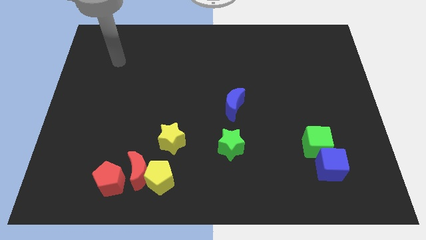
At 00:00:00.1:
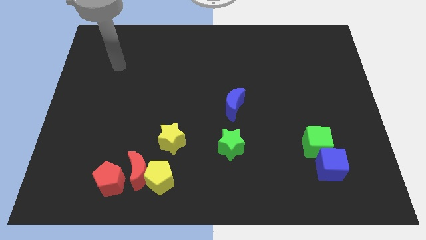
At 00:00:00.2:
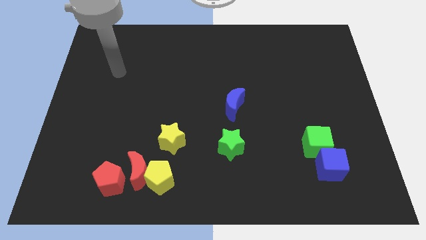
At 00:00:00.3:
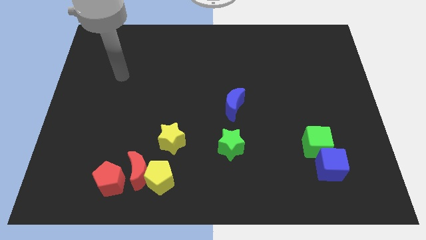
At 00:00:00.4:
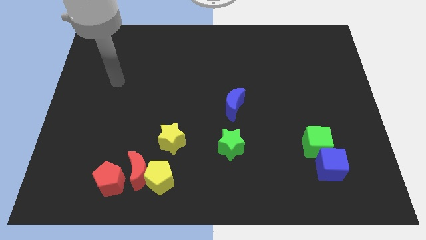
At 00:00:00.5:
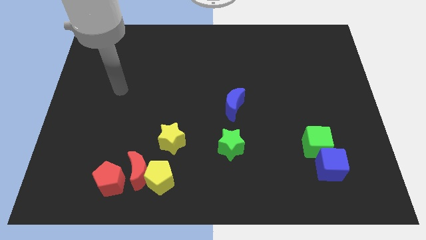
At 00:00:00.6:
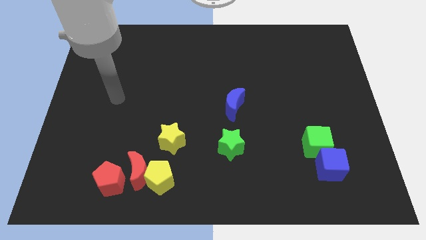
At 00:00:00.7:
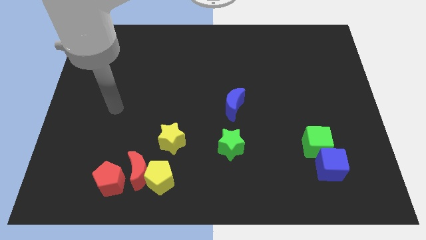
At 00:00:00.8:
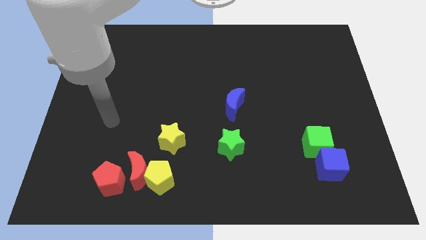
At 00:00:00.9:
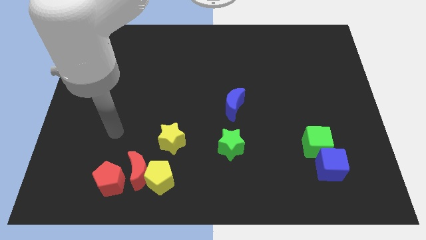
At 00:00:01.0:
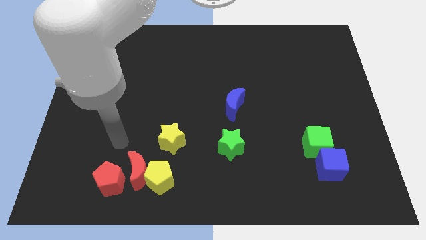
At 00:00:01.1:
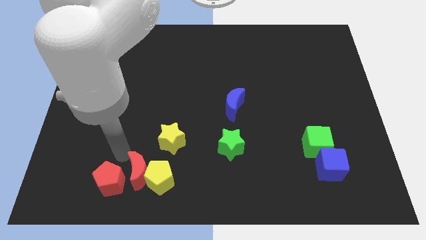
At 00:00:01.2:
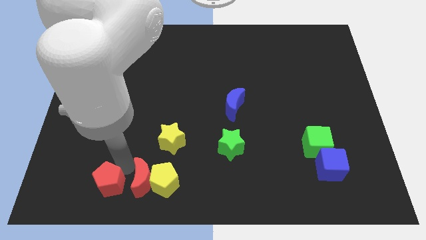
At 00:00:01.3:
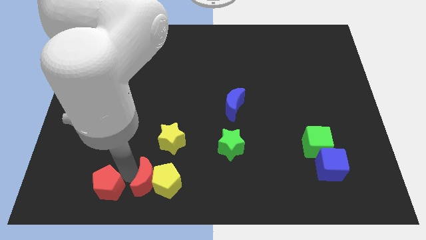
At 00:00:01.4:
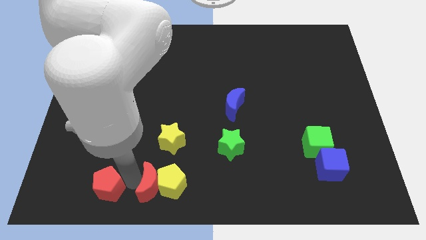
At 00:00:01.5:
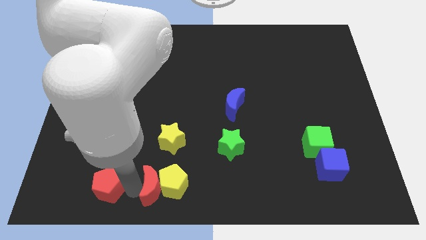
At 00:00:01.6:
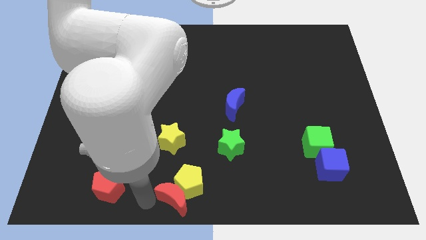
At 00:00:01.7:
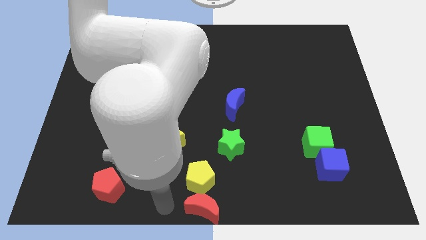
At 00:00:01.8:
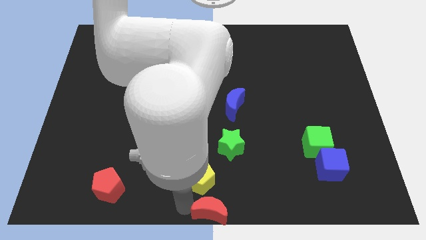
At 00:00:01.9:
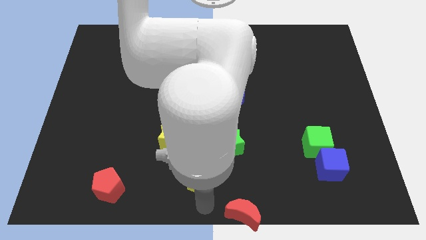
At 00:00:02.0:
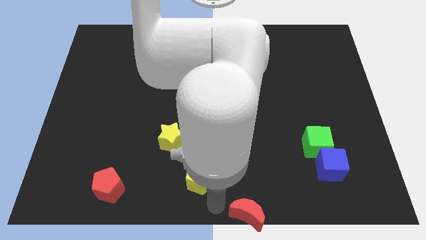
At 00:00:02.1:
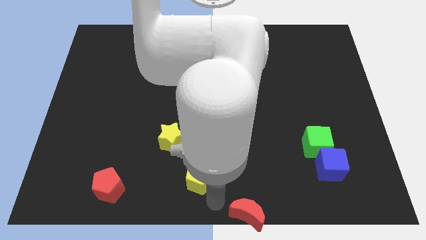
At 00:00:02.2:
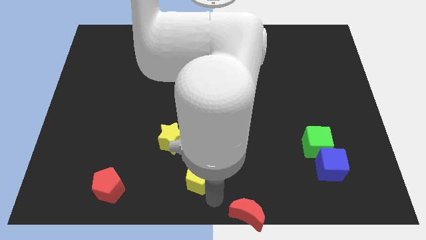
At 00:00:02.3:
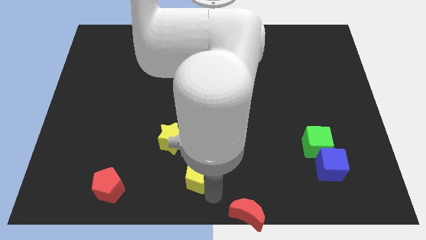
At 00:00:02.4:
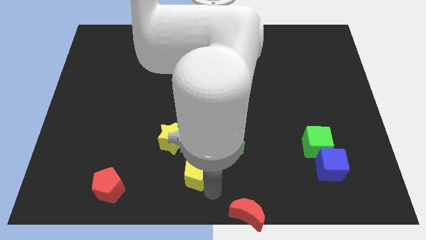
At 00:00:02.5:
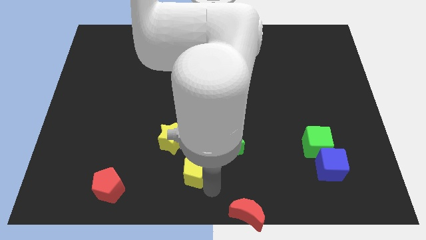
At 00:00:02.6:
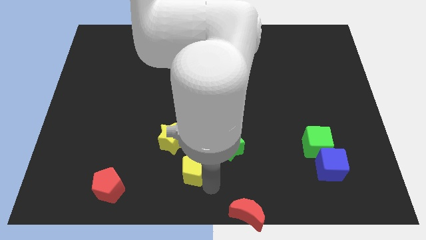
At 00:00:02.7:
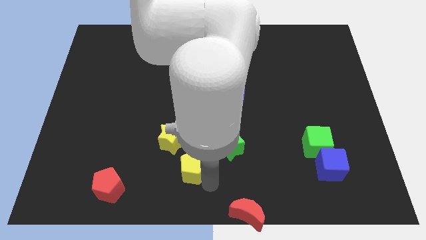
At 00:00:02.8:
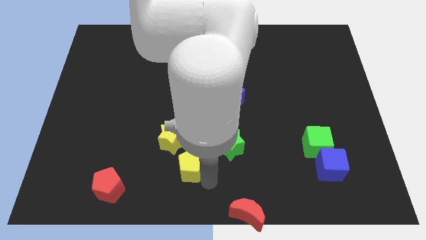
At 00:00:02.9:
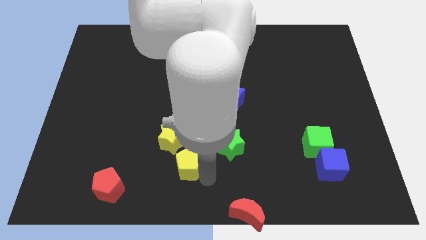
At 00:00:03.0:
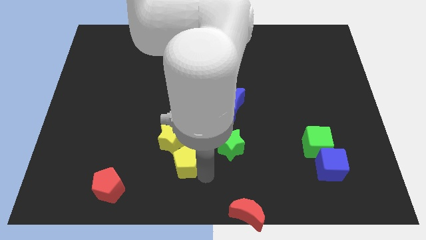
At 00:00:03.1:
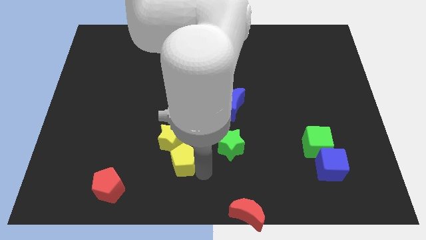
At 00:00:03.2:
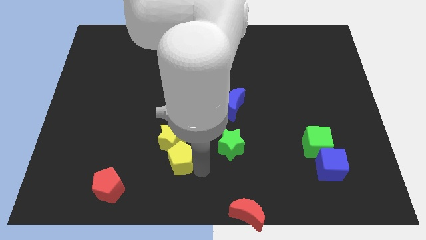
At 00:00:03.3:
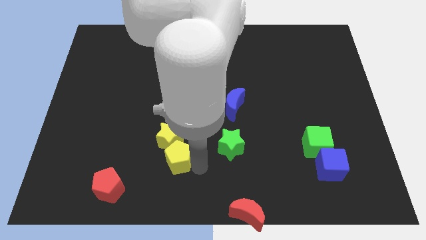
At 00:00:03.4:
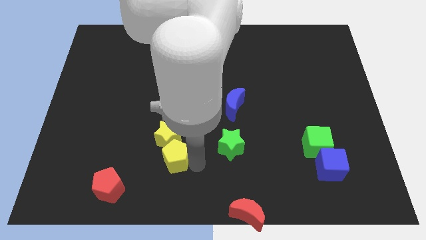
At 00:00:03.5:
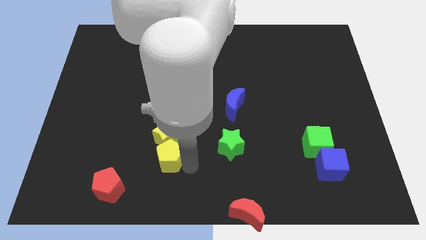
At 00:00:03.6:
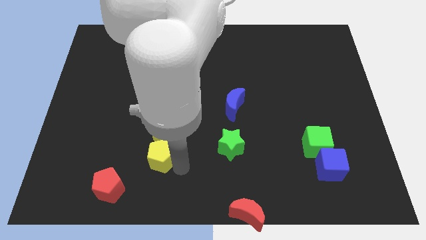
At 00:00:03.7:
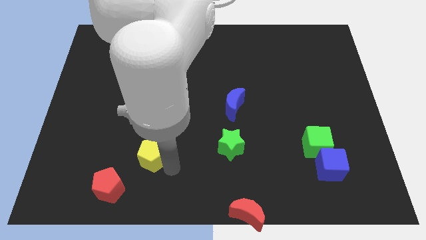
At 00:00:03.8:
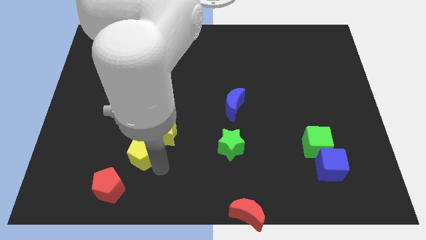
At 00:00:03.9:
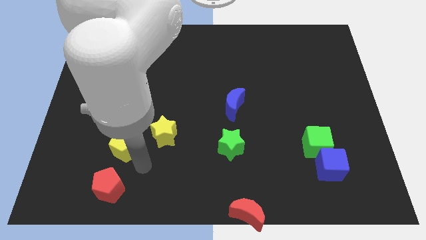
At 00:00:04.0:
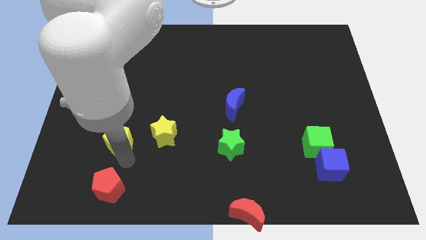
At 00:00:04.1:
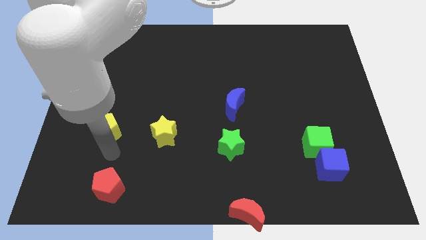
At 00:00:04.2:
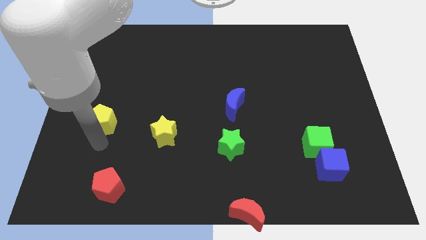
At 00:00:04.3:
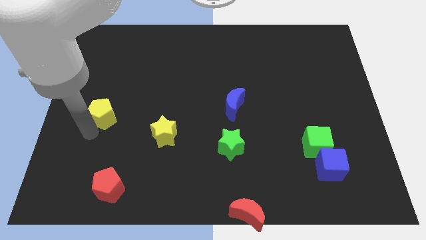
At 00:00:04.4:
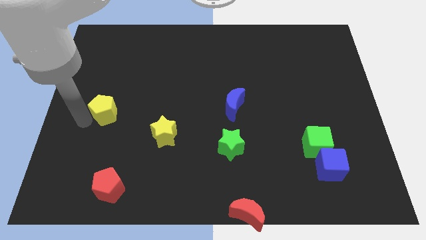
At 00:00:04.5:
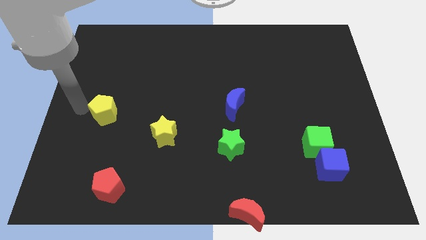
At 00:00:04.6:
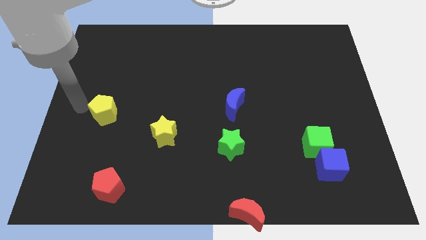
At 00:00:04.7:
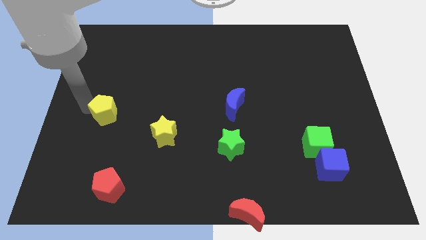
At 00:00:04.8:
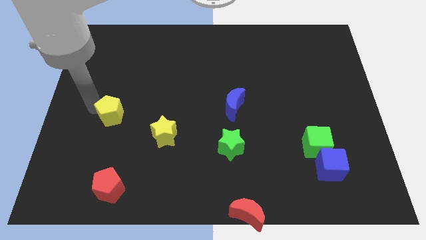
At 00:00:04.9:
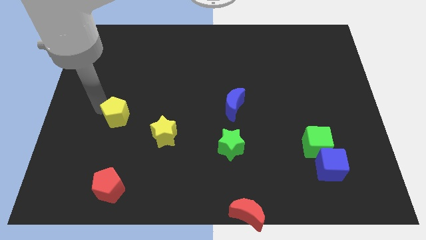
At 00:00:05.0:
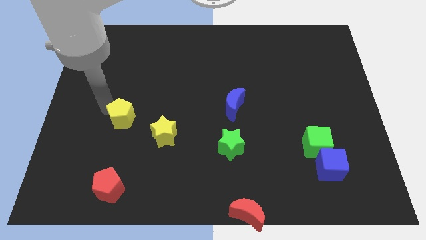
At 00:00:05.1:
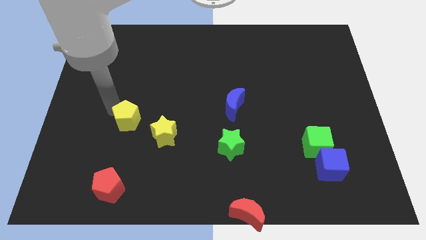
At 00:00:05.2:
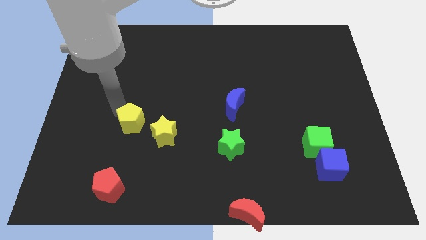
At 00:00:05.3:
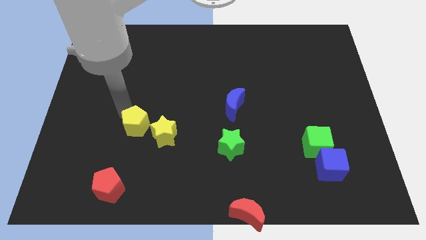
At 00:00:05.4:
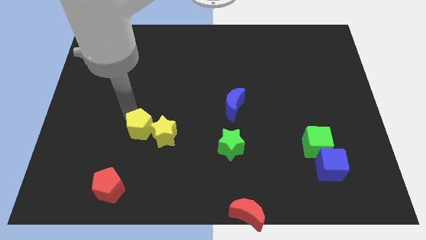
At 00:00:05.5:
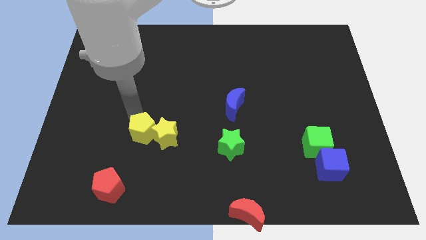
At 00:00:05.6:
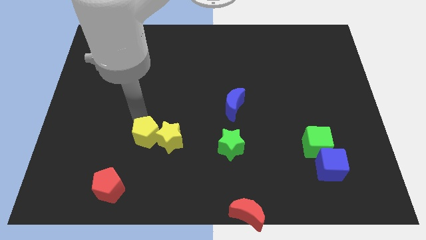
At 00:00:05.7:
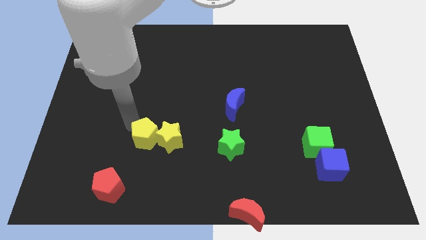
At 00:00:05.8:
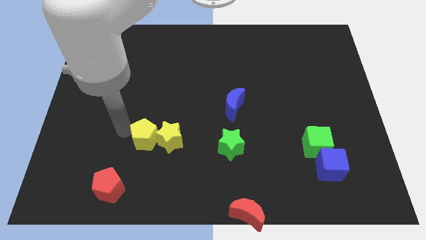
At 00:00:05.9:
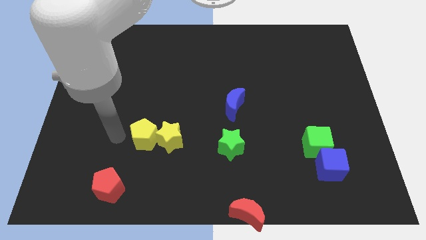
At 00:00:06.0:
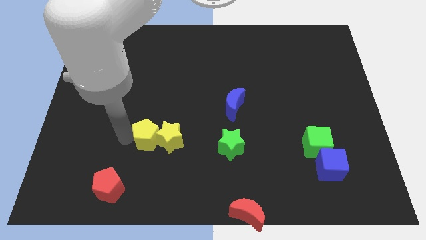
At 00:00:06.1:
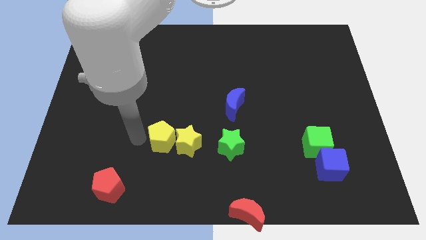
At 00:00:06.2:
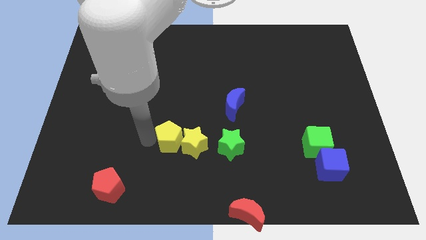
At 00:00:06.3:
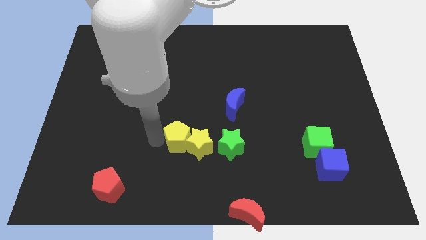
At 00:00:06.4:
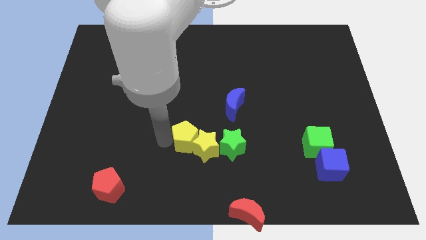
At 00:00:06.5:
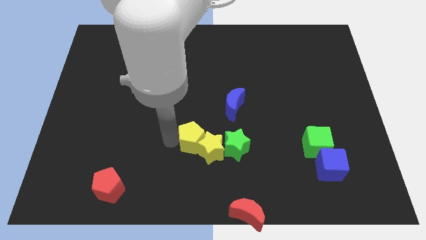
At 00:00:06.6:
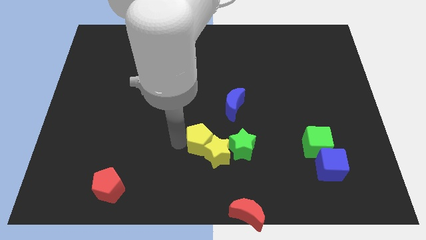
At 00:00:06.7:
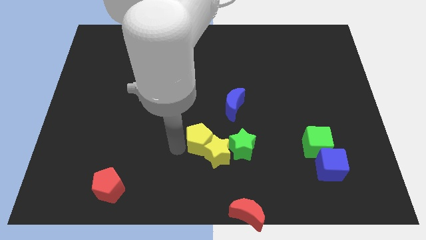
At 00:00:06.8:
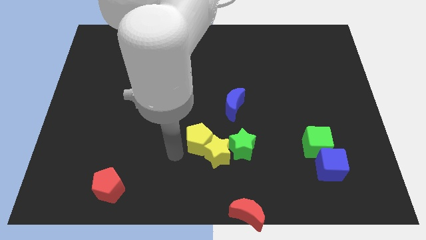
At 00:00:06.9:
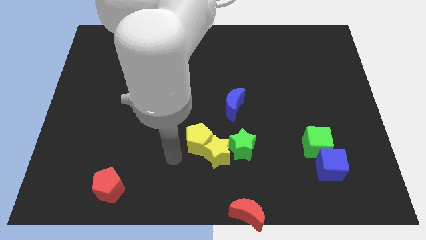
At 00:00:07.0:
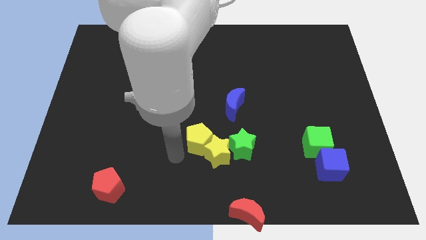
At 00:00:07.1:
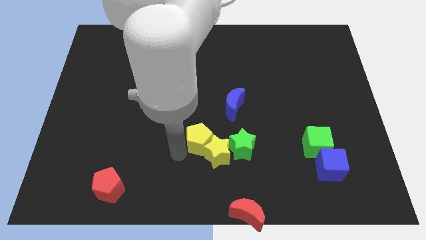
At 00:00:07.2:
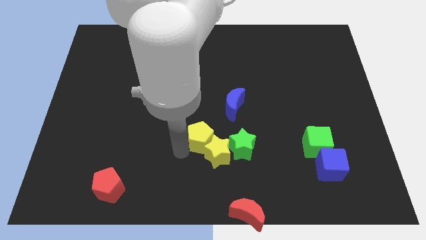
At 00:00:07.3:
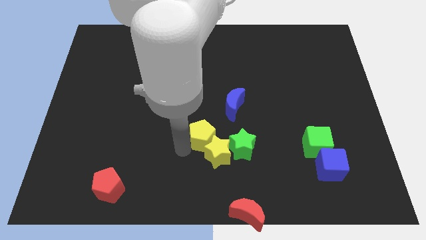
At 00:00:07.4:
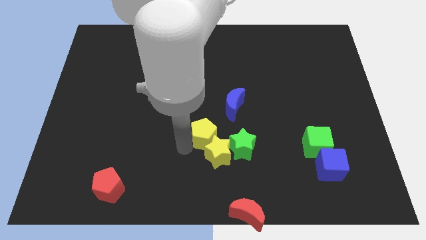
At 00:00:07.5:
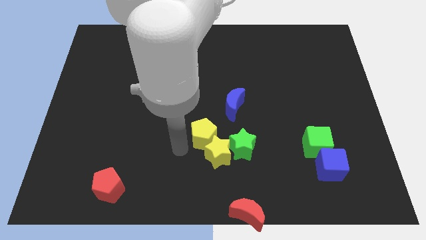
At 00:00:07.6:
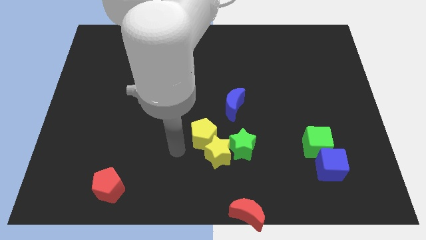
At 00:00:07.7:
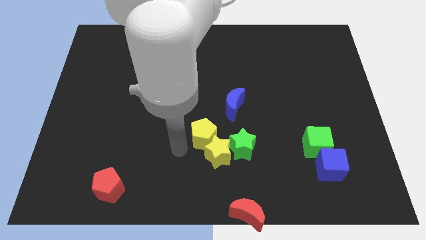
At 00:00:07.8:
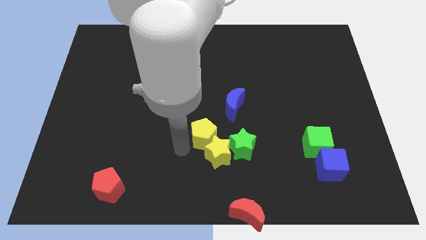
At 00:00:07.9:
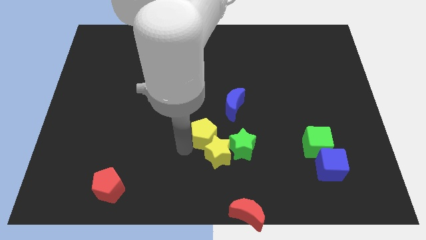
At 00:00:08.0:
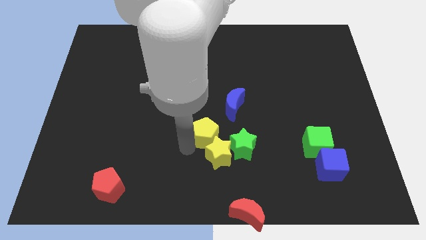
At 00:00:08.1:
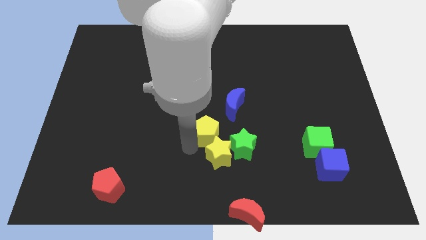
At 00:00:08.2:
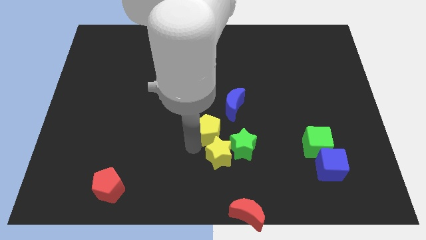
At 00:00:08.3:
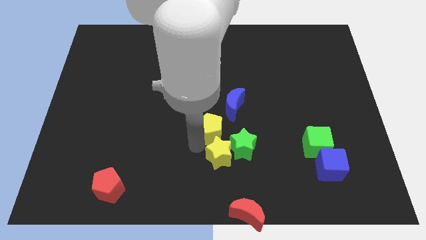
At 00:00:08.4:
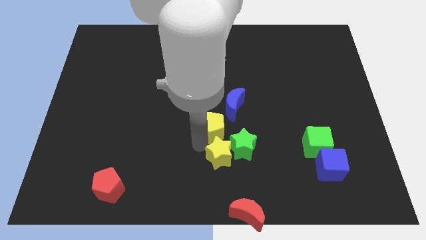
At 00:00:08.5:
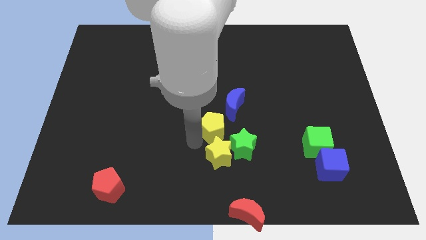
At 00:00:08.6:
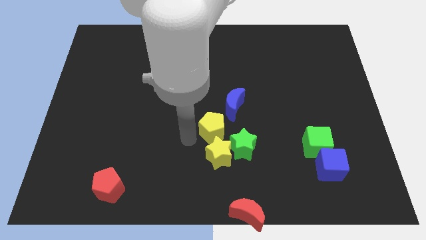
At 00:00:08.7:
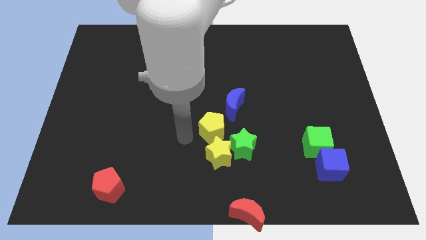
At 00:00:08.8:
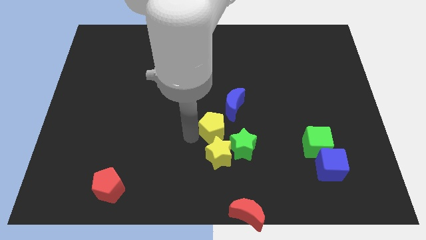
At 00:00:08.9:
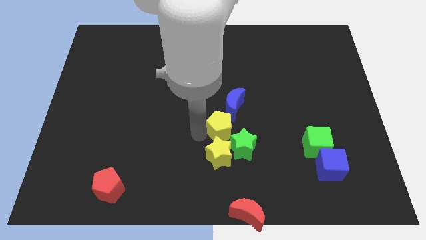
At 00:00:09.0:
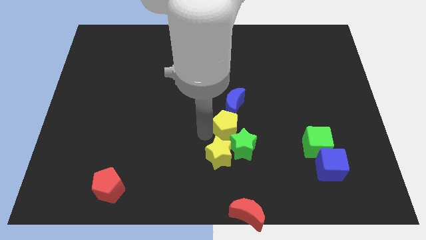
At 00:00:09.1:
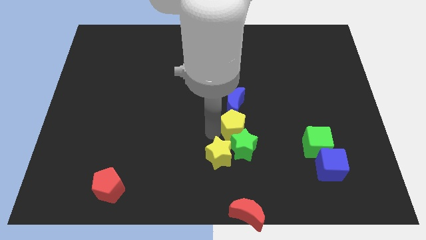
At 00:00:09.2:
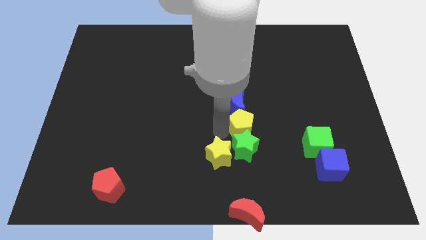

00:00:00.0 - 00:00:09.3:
push the yellow pentagon up and to the right
